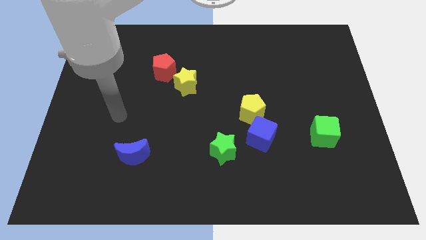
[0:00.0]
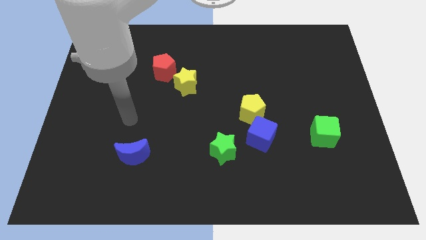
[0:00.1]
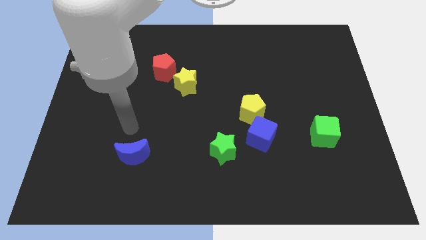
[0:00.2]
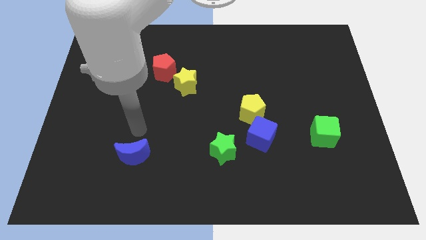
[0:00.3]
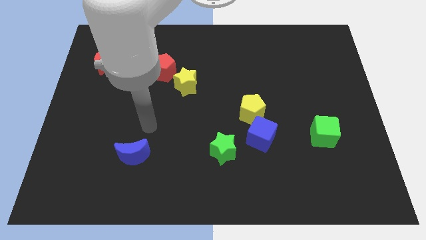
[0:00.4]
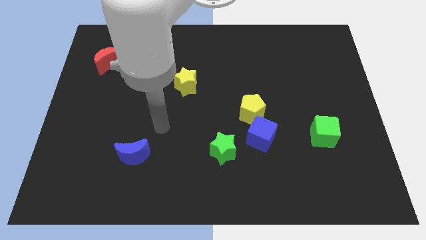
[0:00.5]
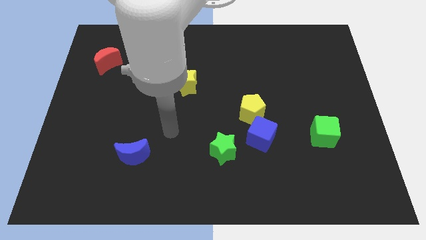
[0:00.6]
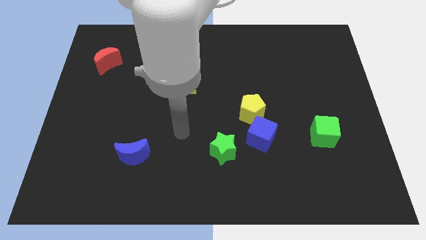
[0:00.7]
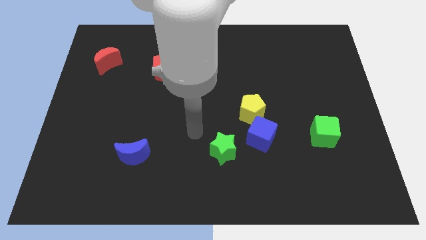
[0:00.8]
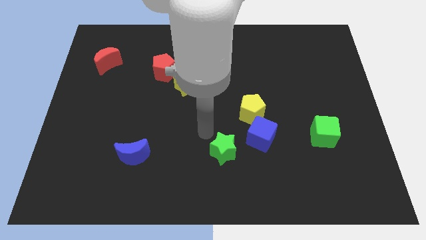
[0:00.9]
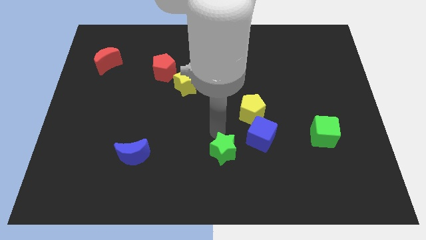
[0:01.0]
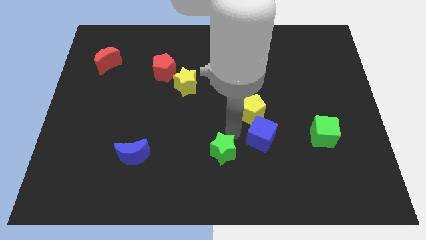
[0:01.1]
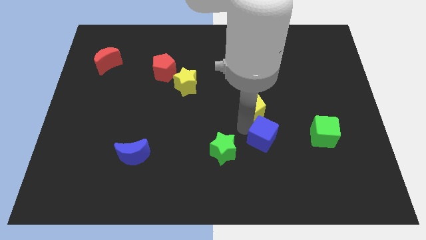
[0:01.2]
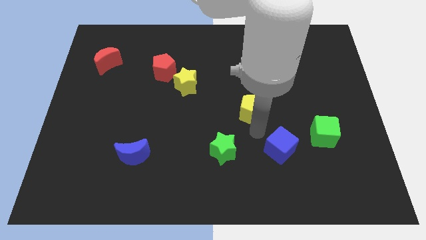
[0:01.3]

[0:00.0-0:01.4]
separate the yellow pentagon from the blue cube

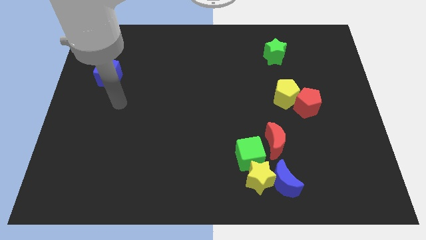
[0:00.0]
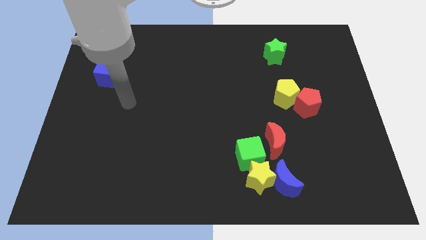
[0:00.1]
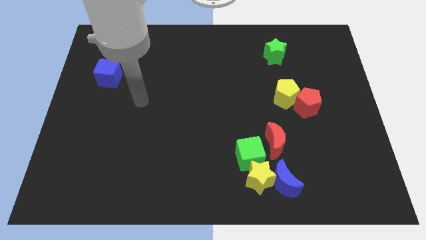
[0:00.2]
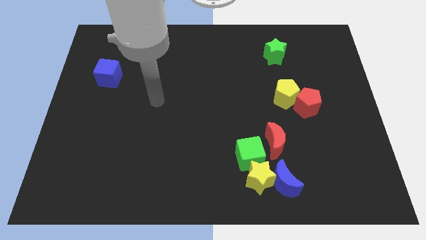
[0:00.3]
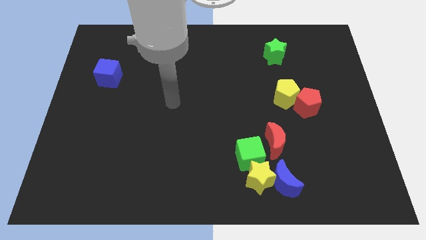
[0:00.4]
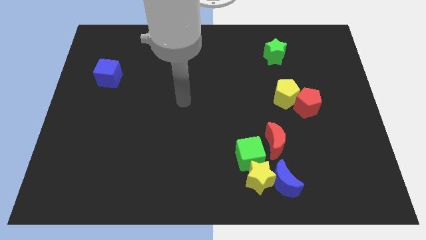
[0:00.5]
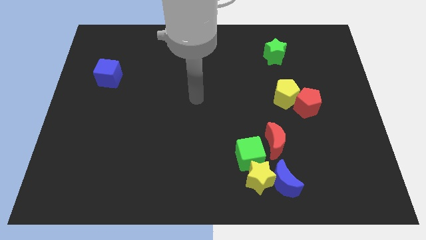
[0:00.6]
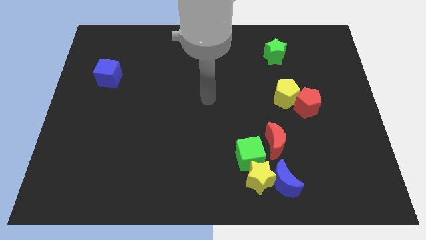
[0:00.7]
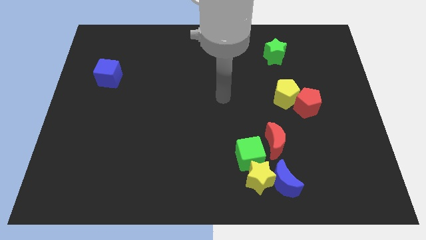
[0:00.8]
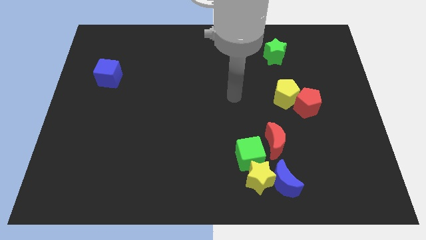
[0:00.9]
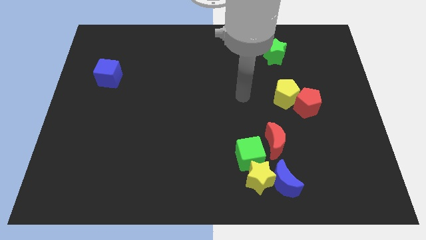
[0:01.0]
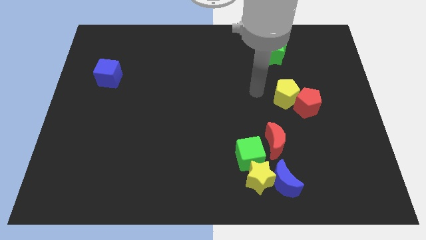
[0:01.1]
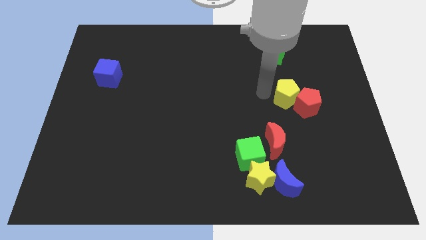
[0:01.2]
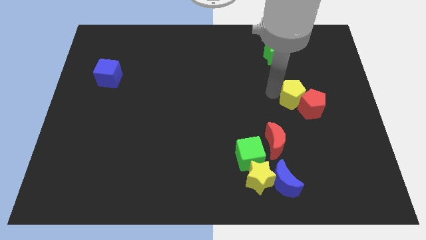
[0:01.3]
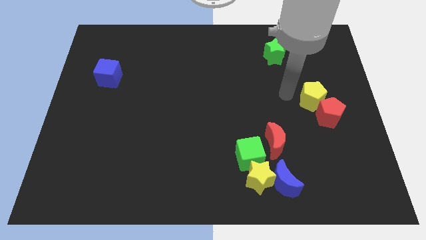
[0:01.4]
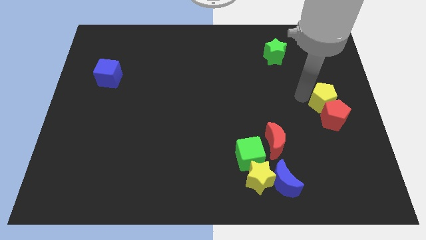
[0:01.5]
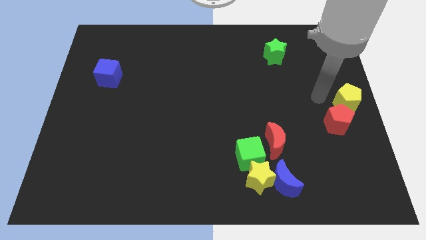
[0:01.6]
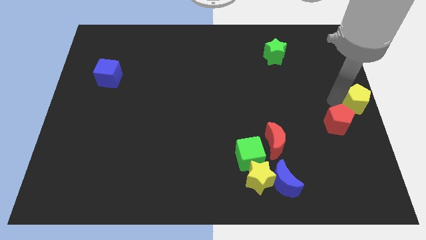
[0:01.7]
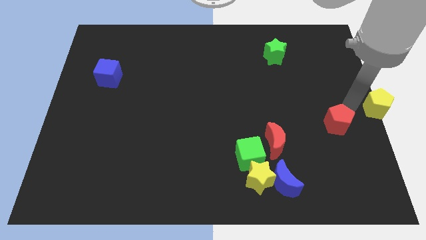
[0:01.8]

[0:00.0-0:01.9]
move the red pentagon away from the yellow pentagon

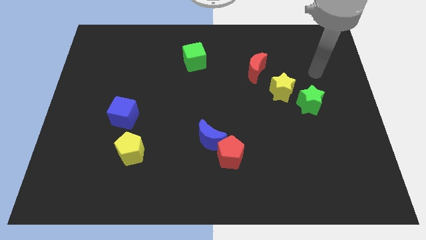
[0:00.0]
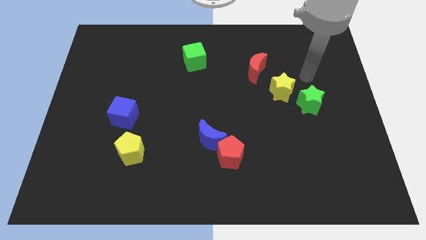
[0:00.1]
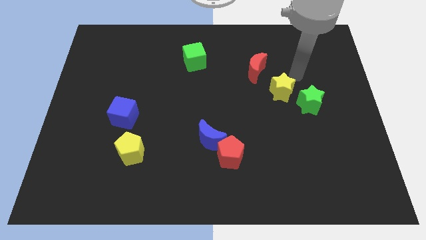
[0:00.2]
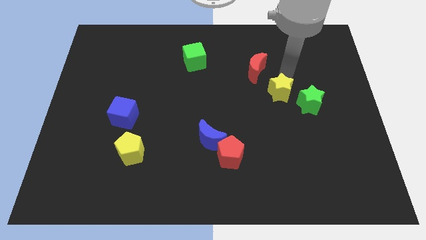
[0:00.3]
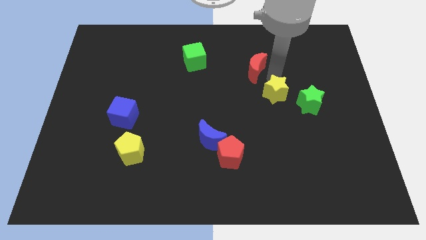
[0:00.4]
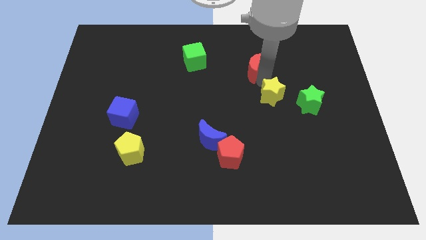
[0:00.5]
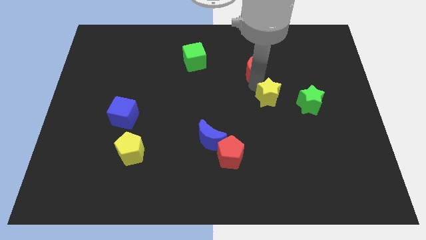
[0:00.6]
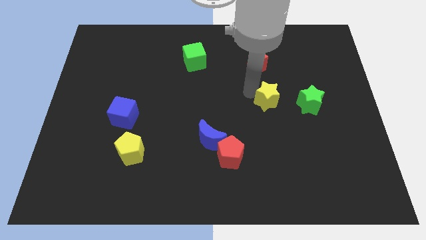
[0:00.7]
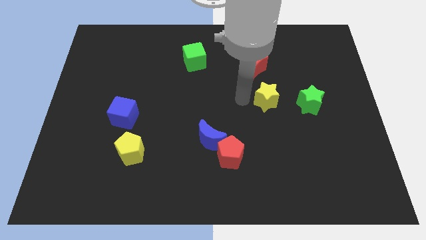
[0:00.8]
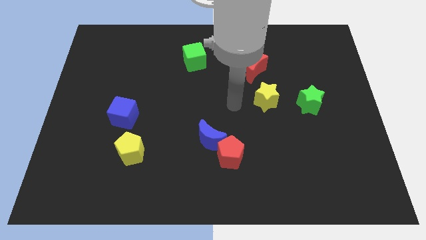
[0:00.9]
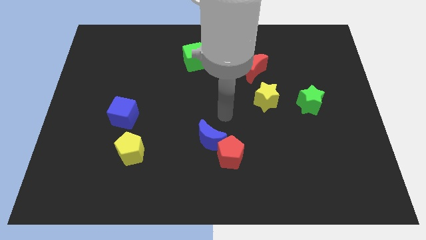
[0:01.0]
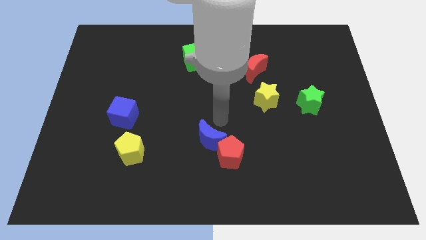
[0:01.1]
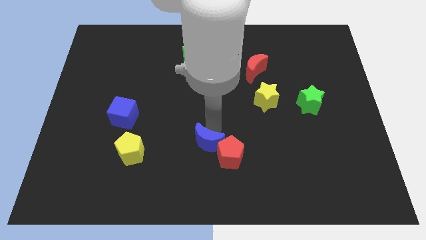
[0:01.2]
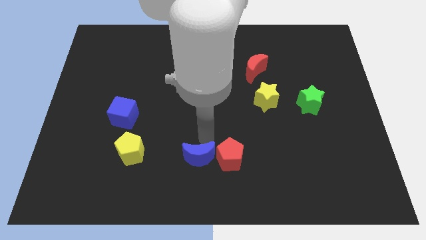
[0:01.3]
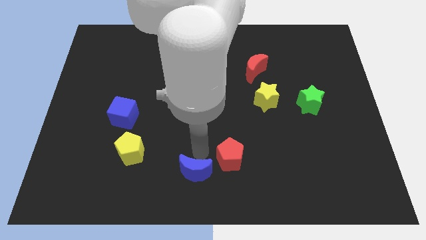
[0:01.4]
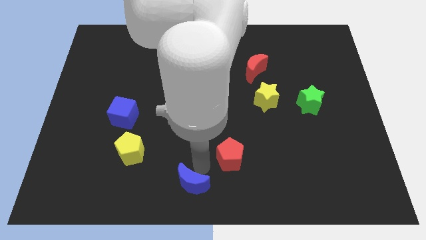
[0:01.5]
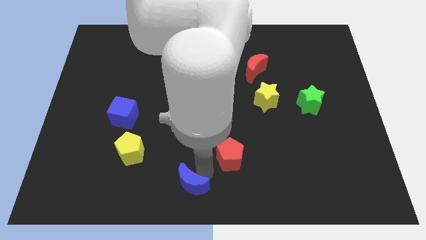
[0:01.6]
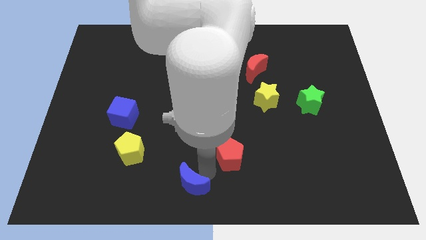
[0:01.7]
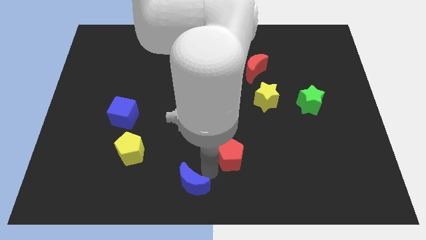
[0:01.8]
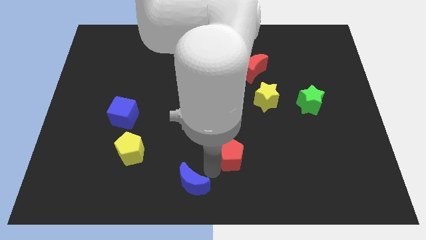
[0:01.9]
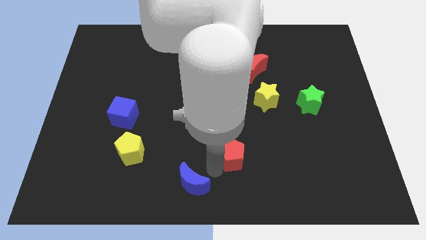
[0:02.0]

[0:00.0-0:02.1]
move the red pentagon away from the blue moon

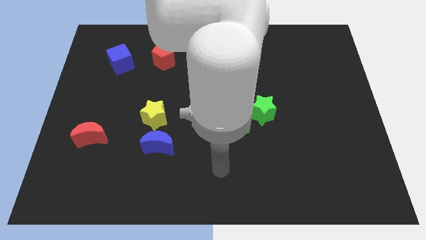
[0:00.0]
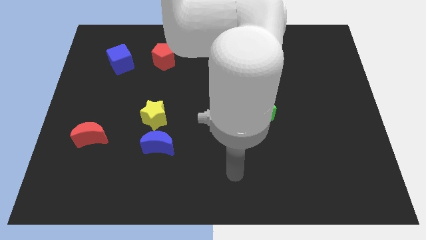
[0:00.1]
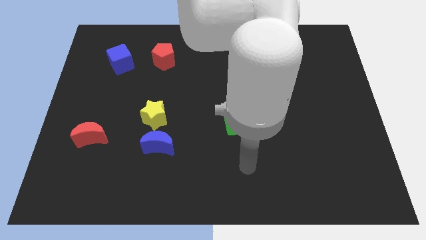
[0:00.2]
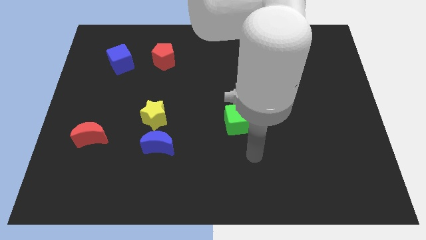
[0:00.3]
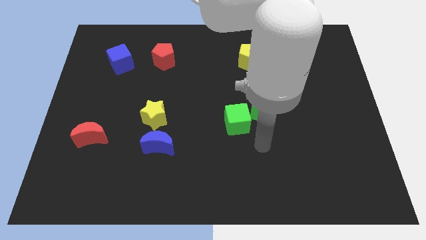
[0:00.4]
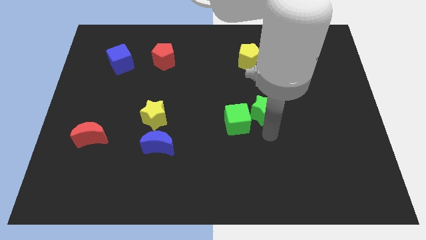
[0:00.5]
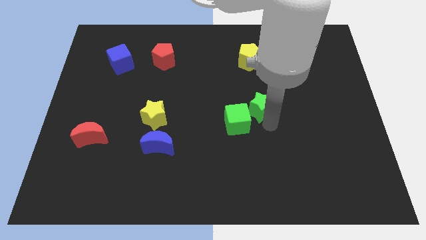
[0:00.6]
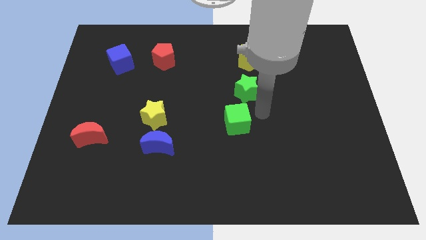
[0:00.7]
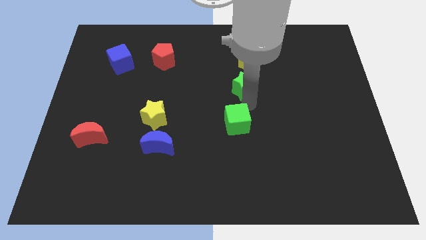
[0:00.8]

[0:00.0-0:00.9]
separate the green cube from the green star

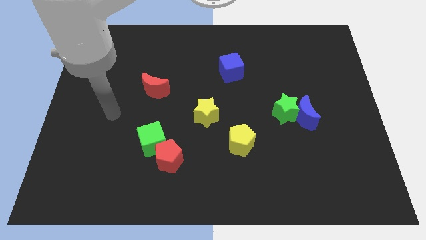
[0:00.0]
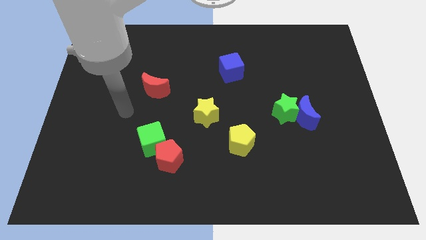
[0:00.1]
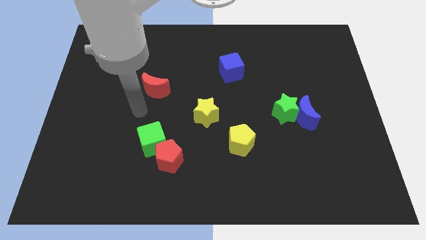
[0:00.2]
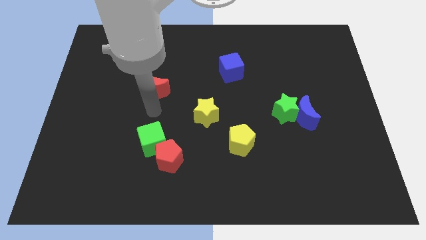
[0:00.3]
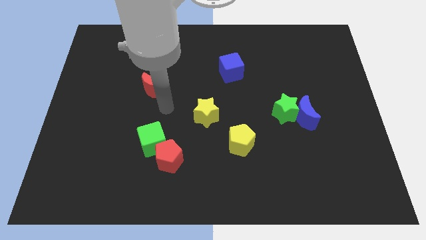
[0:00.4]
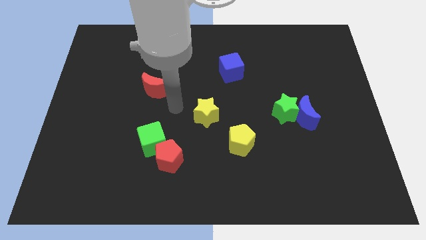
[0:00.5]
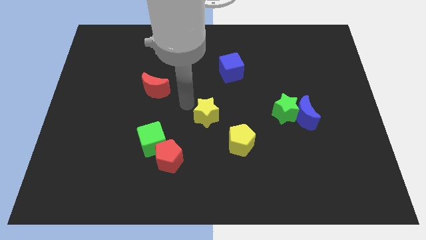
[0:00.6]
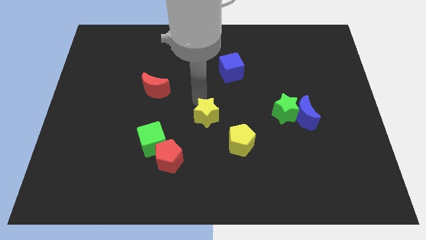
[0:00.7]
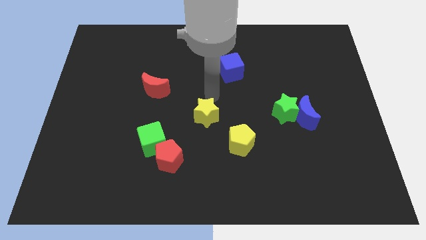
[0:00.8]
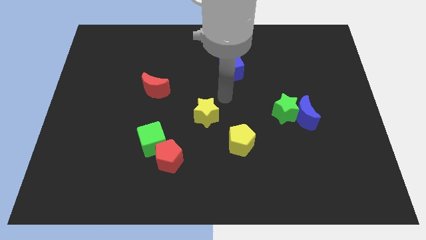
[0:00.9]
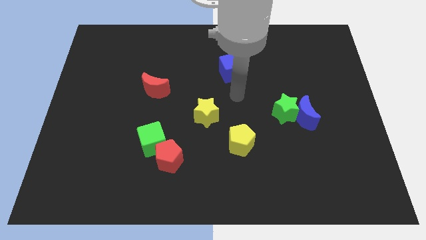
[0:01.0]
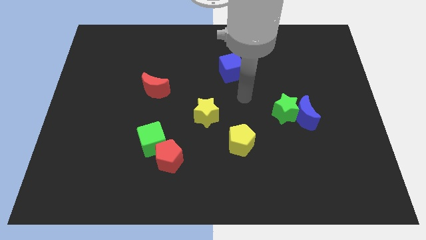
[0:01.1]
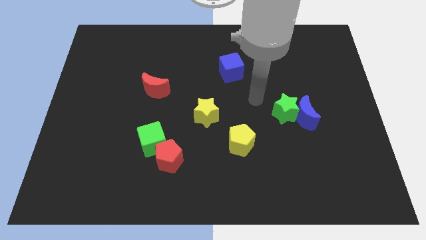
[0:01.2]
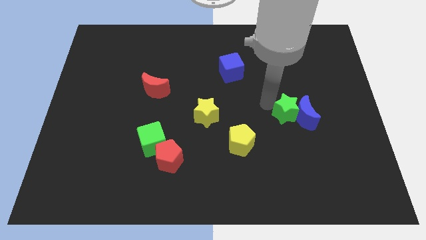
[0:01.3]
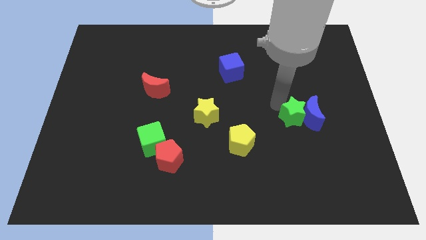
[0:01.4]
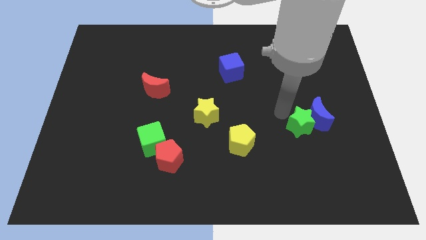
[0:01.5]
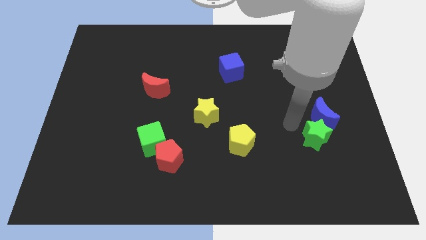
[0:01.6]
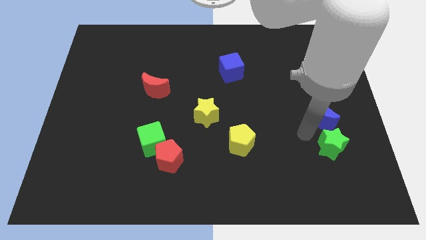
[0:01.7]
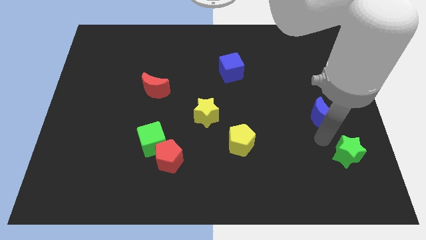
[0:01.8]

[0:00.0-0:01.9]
move the blue moon away from the green star

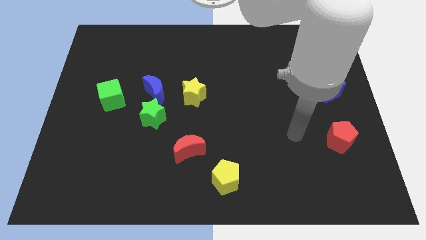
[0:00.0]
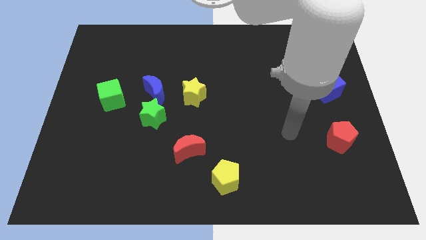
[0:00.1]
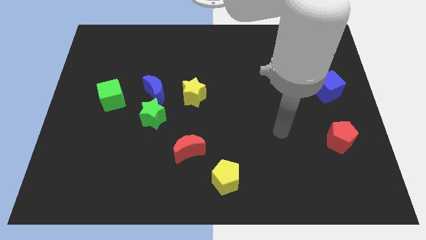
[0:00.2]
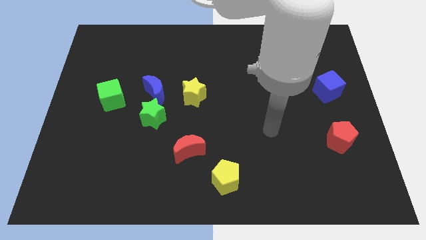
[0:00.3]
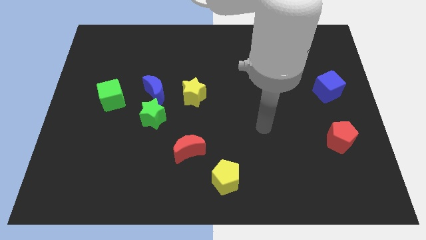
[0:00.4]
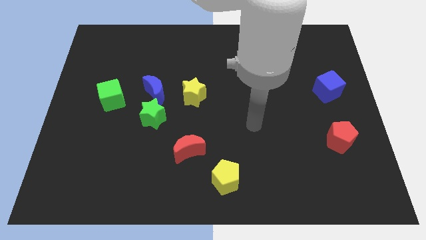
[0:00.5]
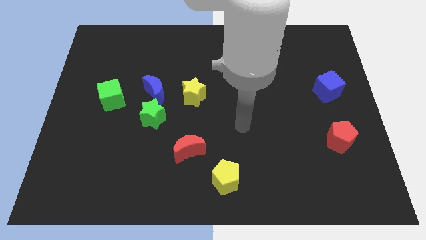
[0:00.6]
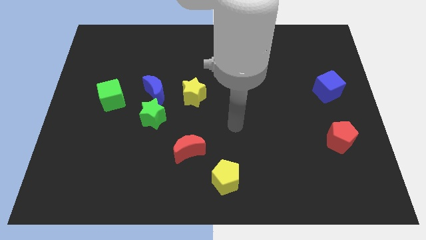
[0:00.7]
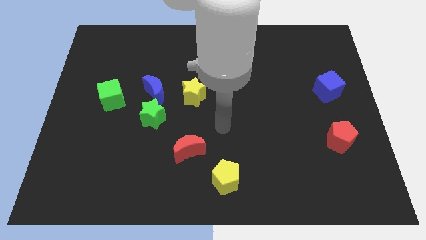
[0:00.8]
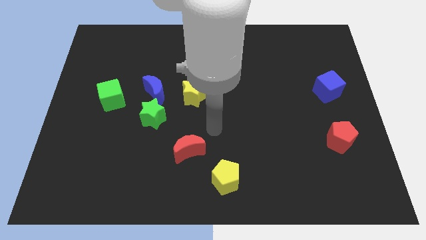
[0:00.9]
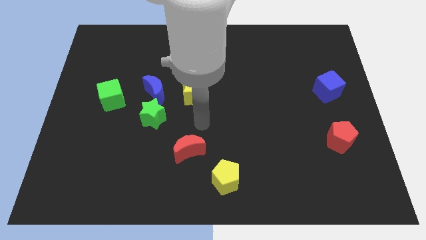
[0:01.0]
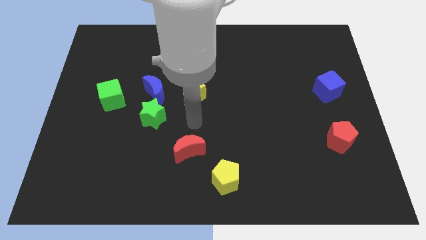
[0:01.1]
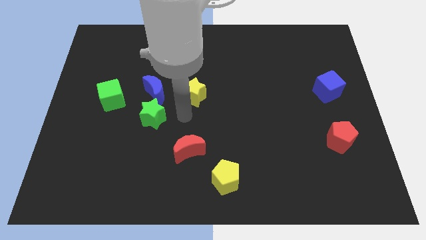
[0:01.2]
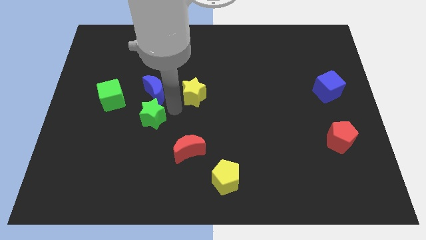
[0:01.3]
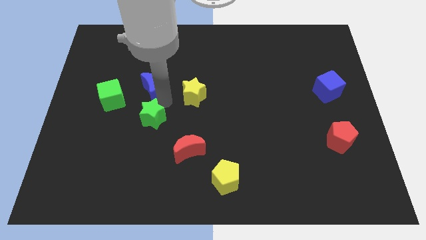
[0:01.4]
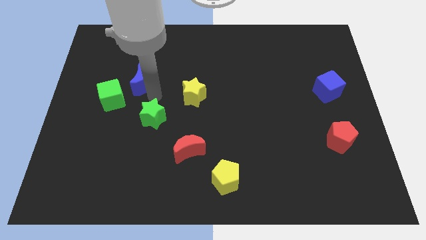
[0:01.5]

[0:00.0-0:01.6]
move the green star away from the blue moon